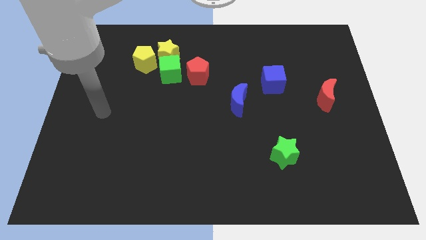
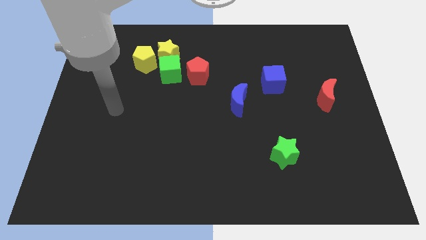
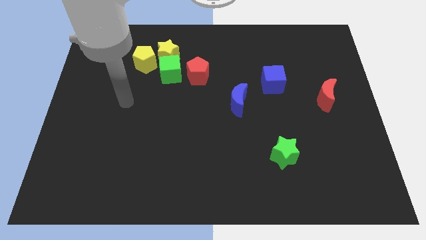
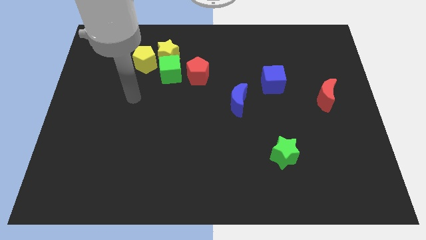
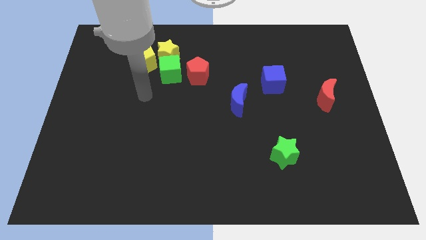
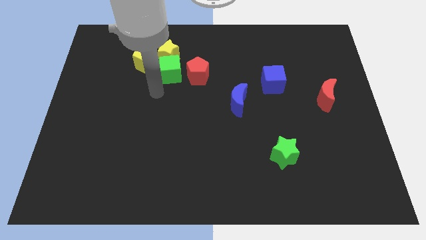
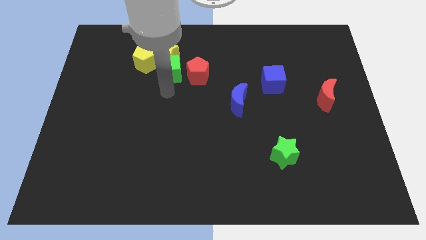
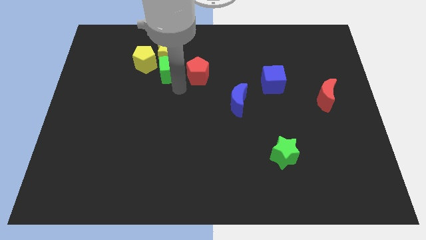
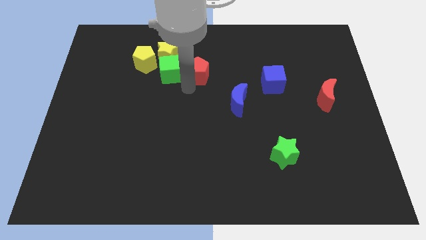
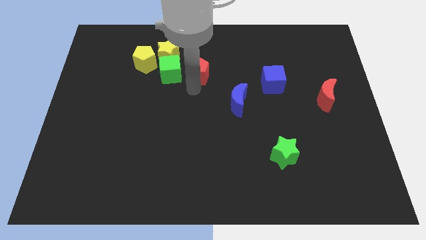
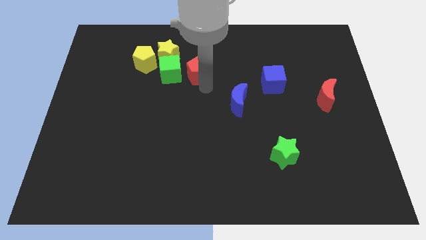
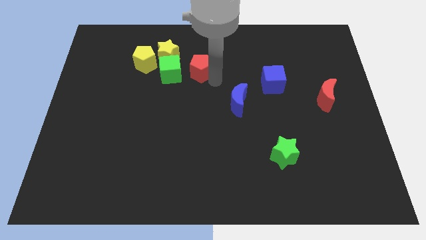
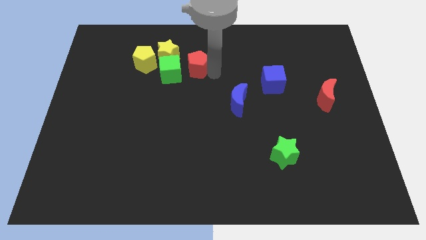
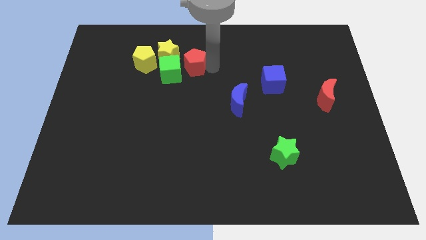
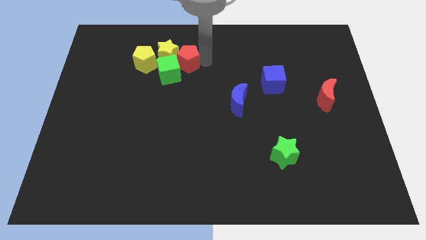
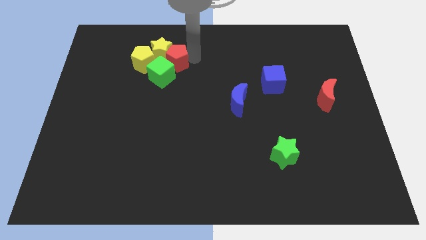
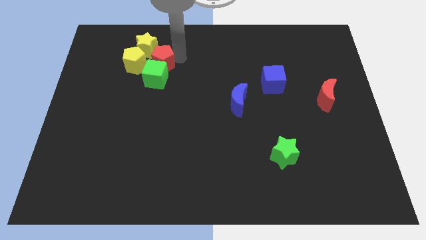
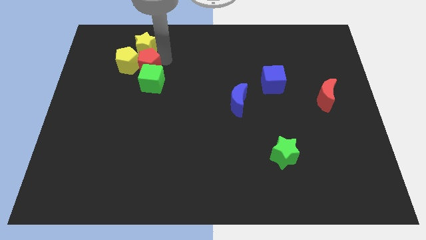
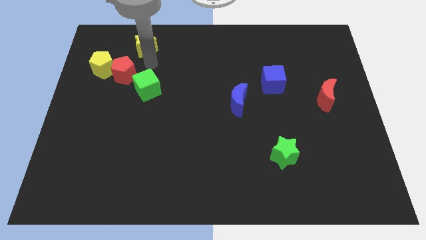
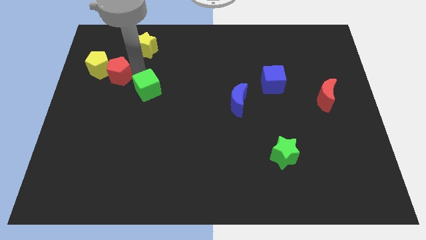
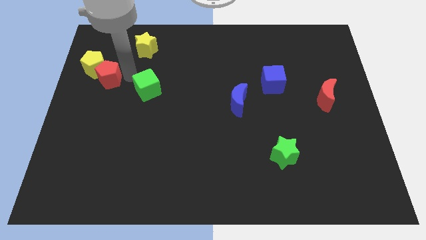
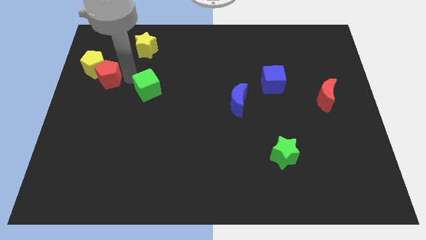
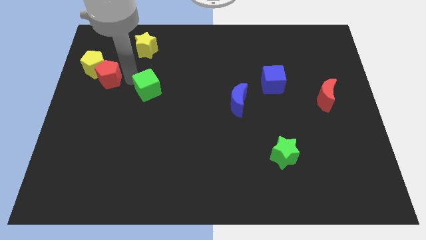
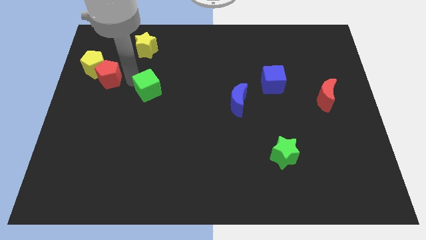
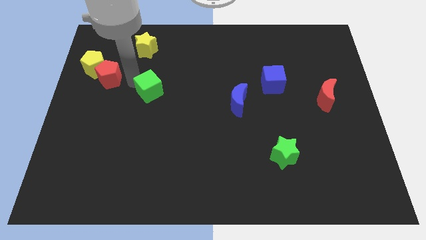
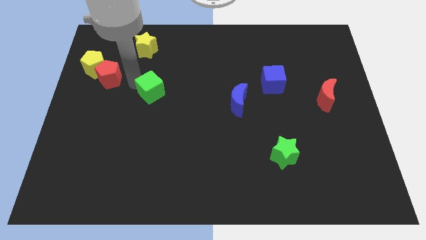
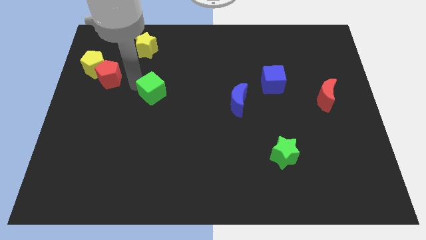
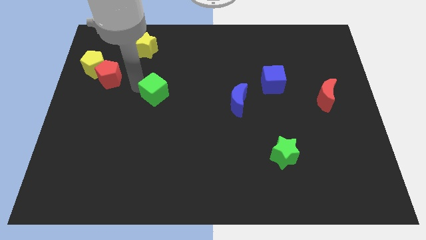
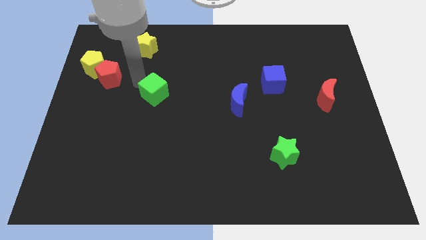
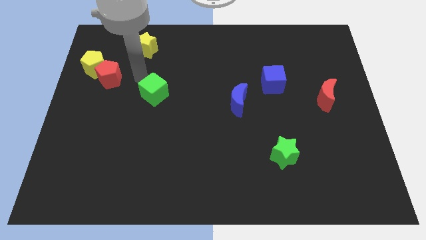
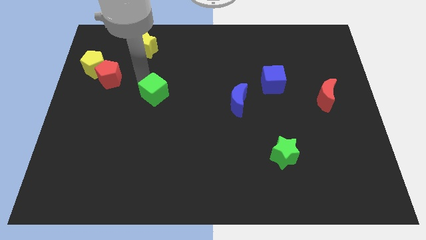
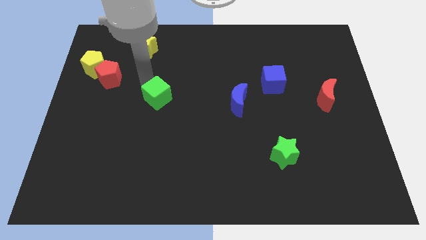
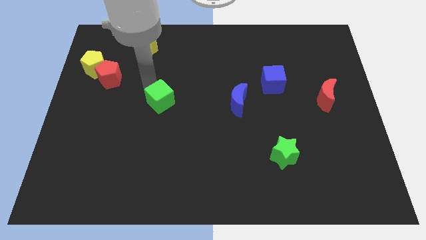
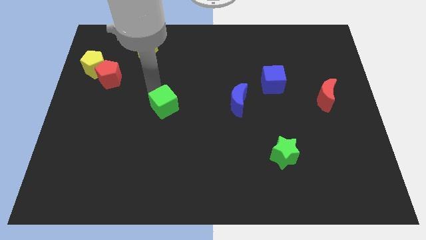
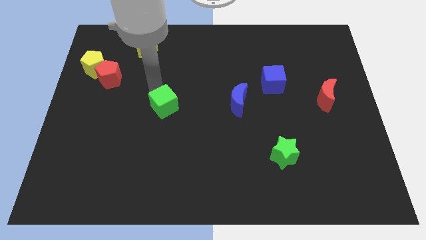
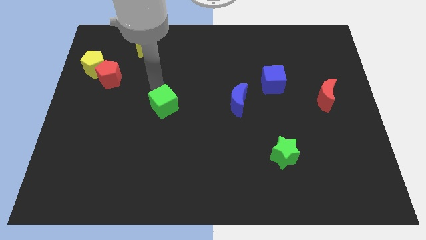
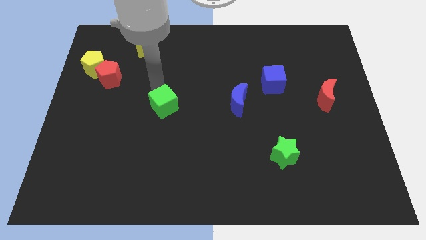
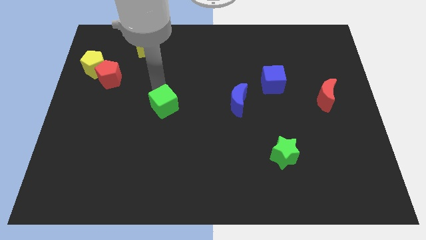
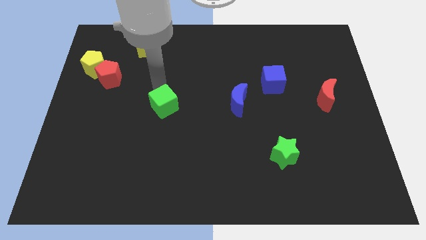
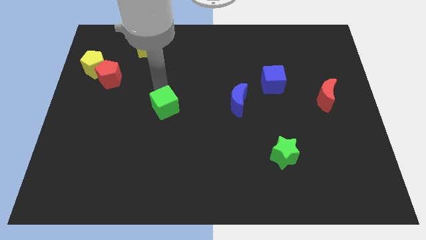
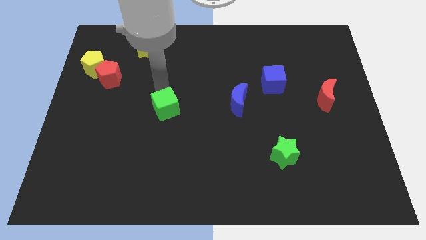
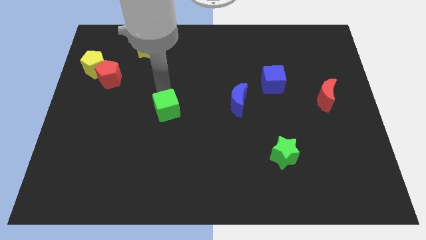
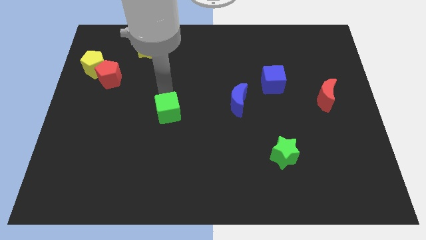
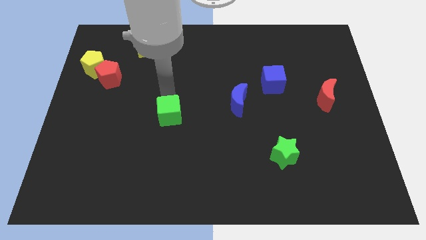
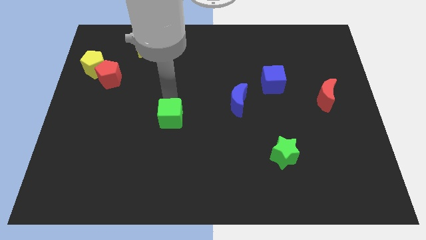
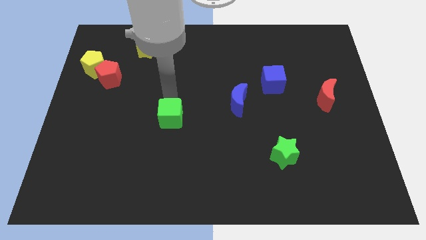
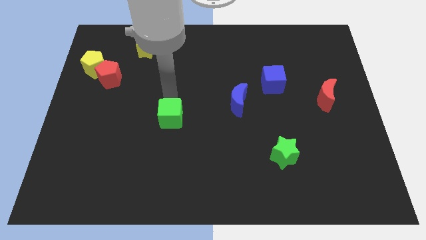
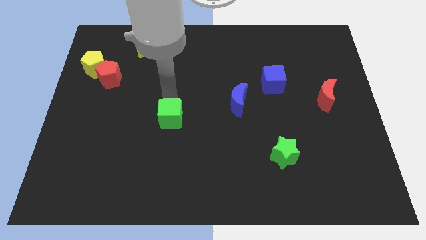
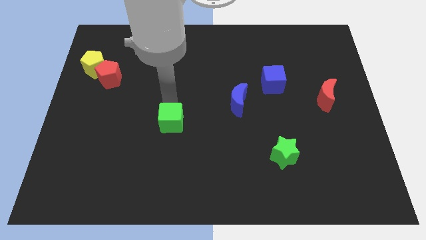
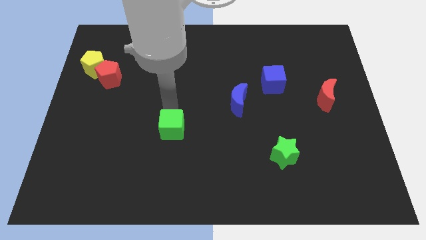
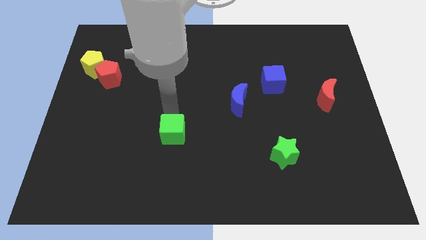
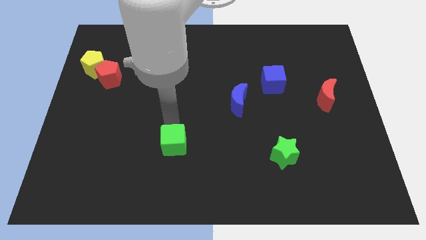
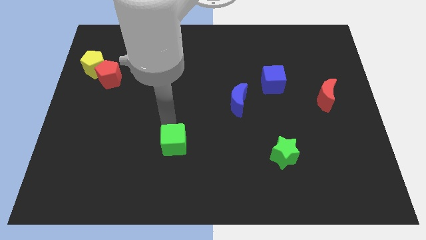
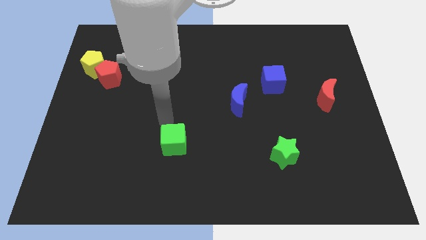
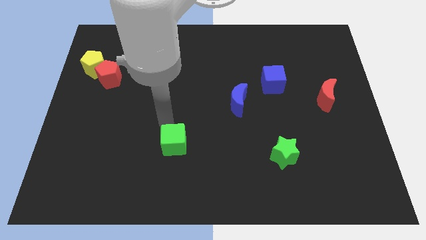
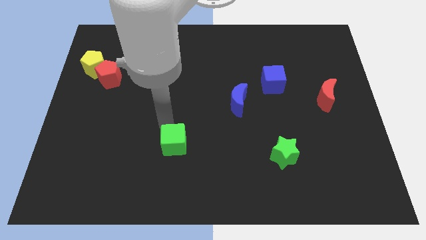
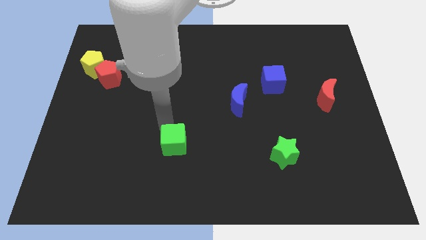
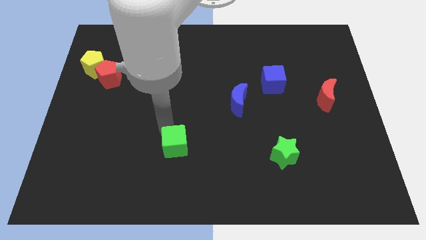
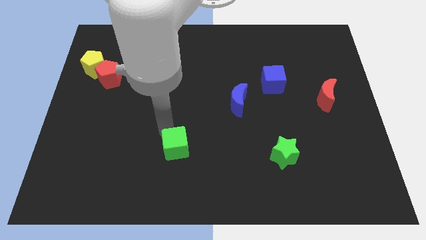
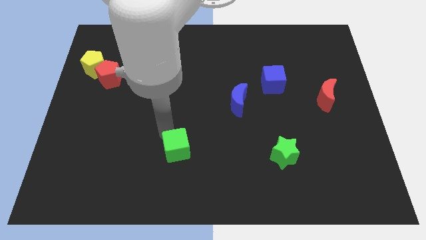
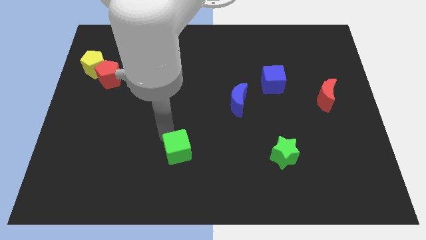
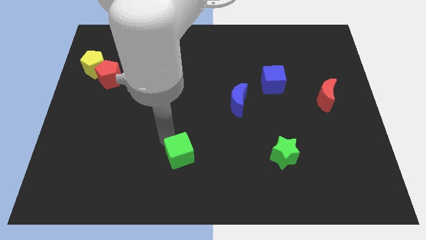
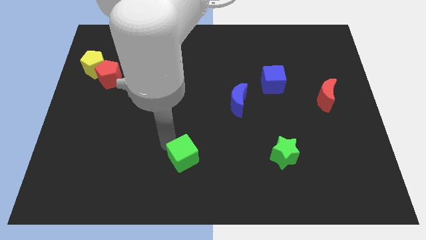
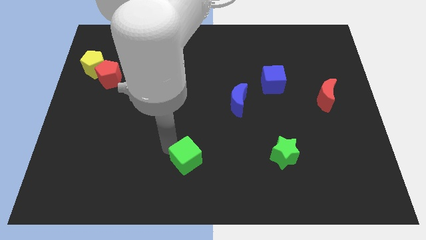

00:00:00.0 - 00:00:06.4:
push the green cube to the bottom side
